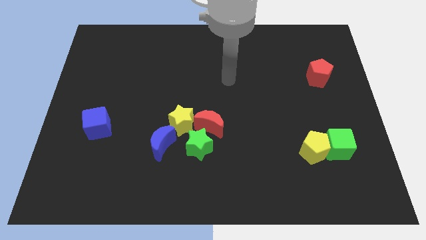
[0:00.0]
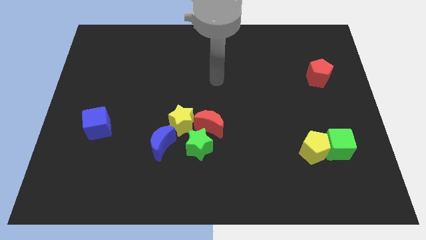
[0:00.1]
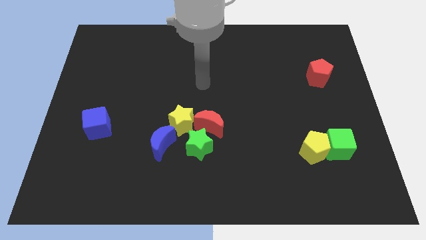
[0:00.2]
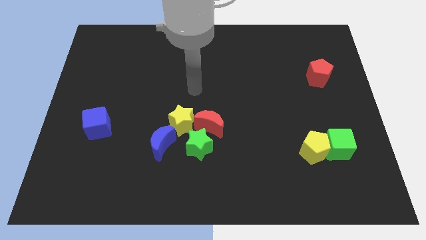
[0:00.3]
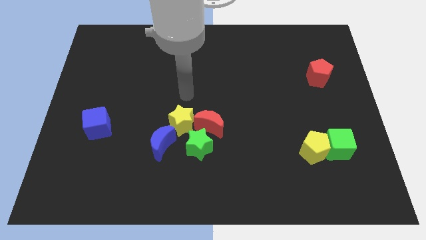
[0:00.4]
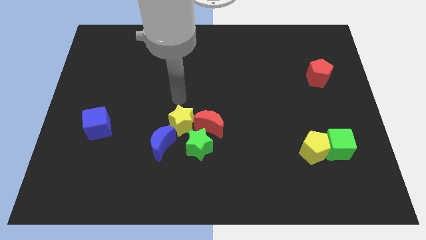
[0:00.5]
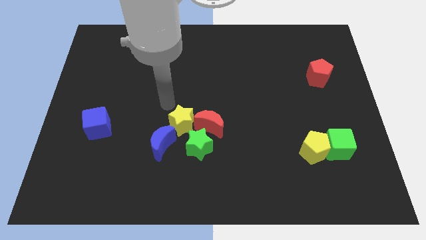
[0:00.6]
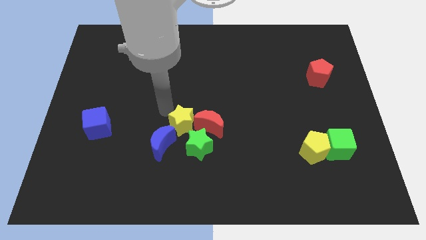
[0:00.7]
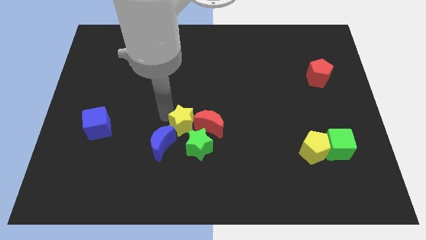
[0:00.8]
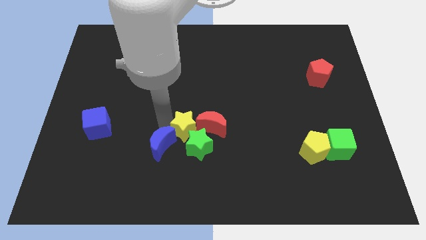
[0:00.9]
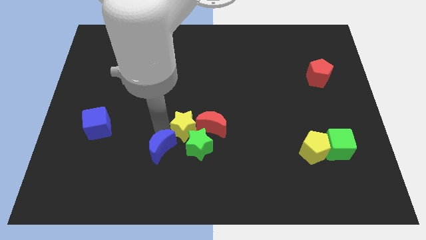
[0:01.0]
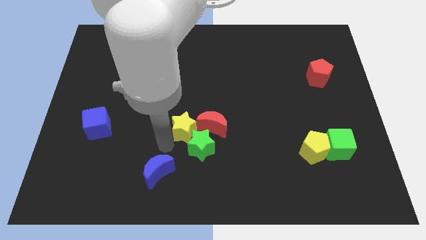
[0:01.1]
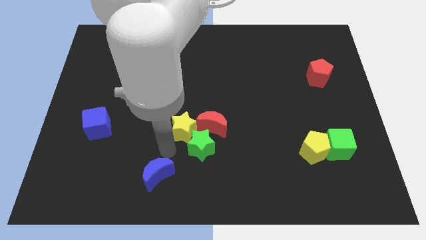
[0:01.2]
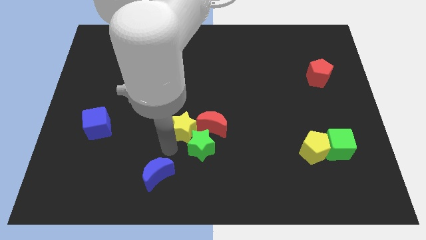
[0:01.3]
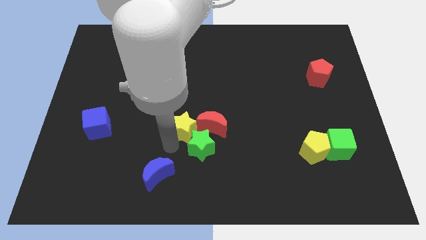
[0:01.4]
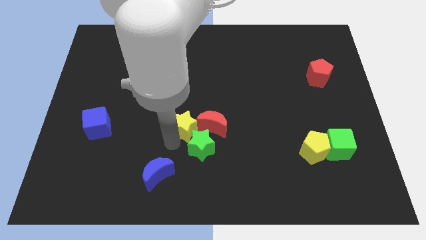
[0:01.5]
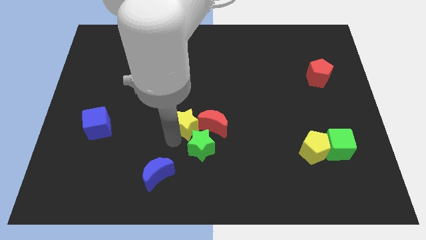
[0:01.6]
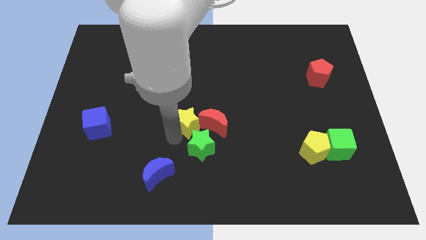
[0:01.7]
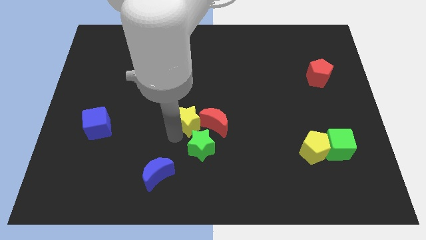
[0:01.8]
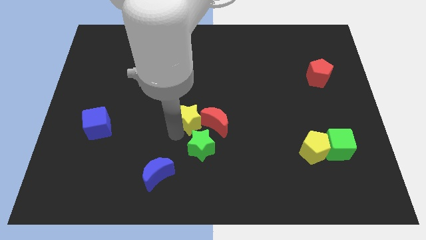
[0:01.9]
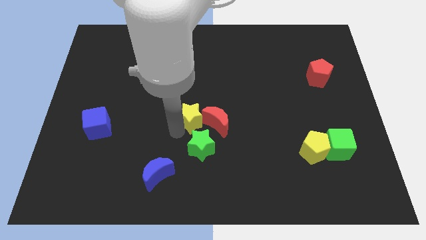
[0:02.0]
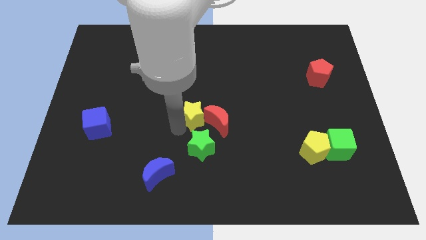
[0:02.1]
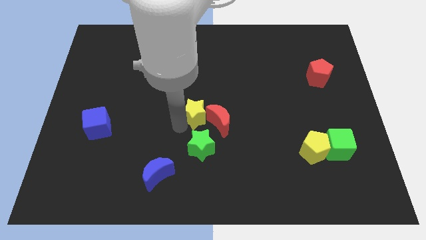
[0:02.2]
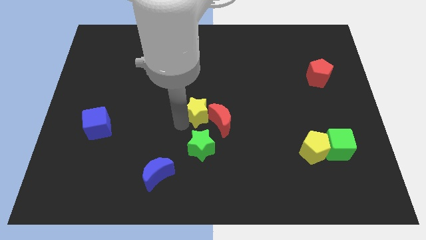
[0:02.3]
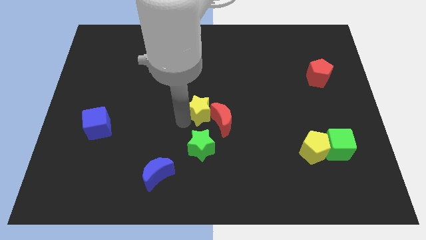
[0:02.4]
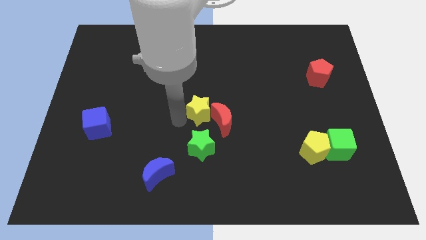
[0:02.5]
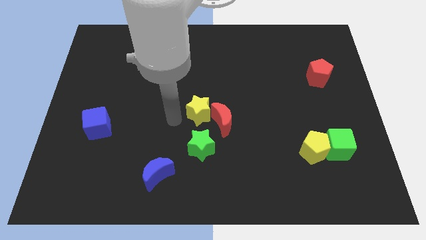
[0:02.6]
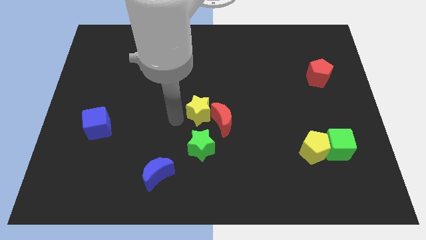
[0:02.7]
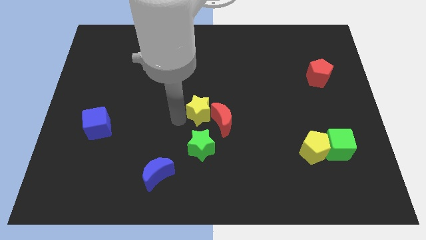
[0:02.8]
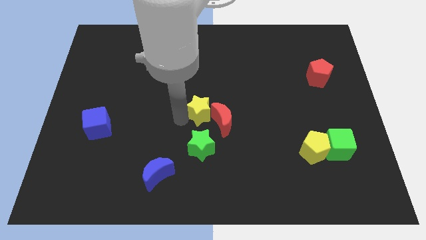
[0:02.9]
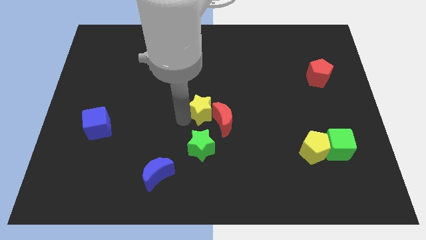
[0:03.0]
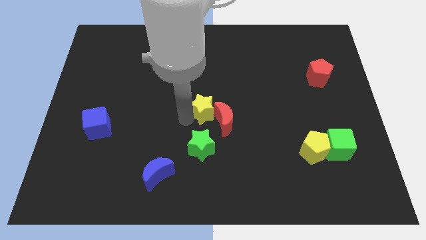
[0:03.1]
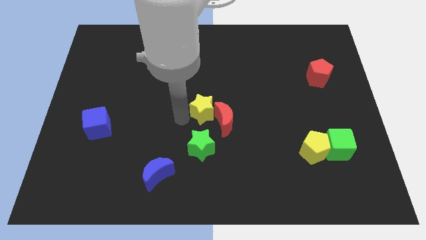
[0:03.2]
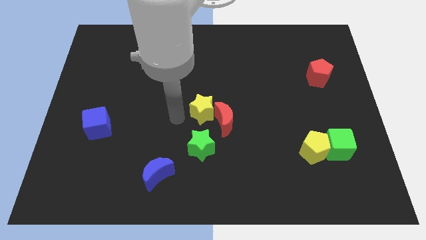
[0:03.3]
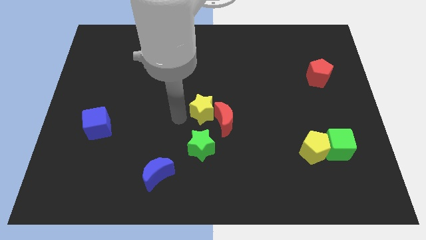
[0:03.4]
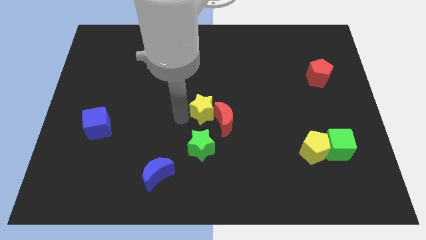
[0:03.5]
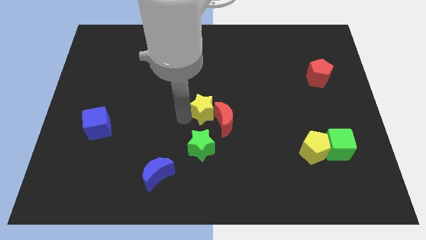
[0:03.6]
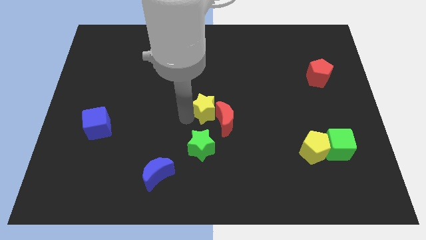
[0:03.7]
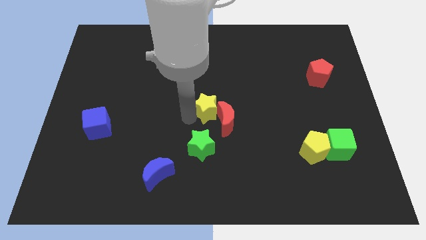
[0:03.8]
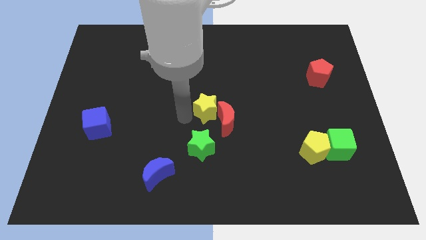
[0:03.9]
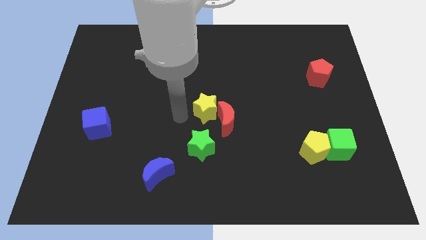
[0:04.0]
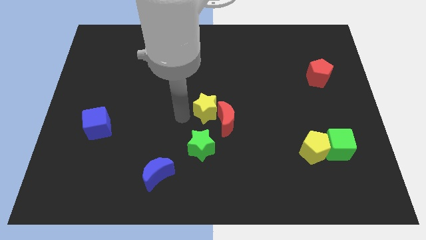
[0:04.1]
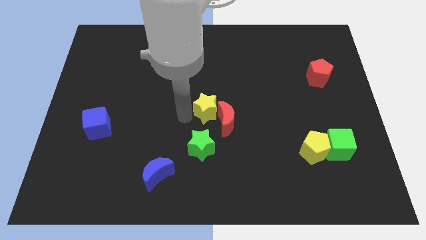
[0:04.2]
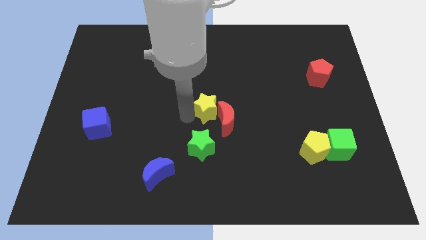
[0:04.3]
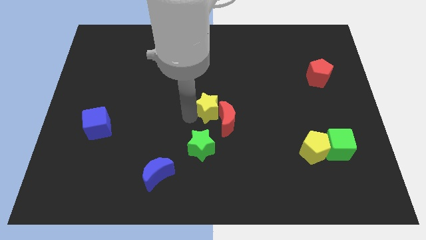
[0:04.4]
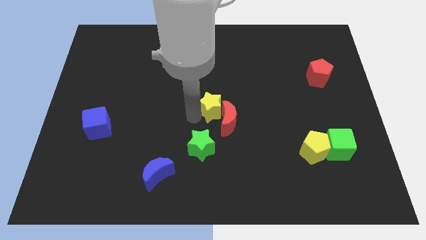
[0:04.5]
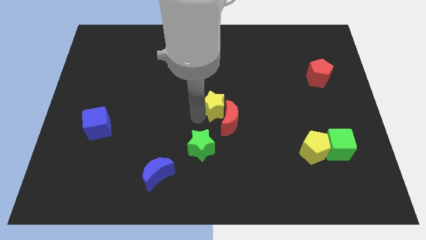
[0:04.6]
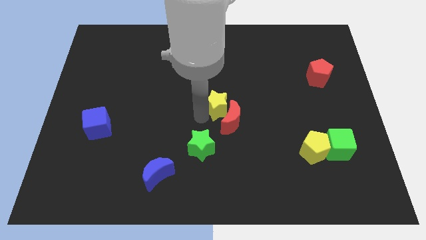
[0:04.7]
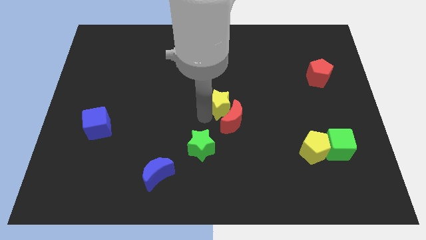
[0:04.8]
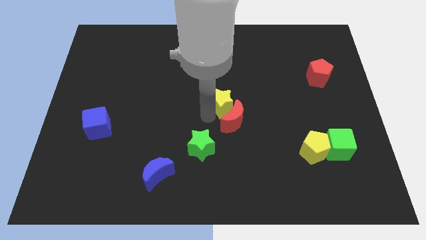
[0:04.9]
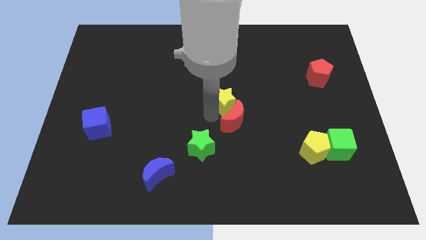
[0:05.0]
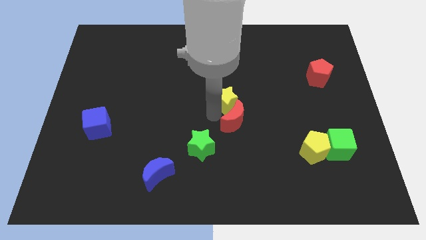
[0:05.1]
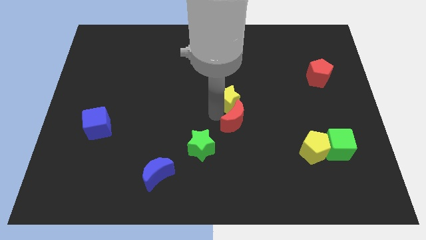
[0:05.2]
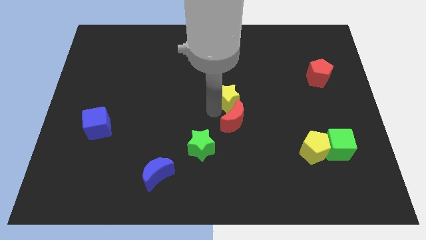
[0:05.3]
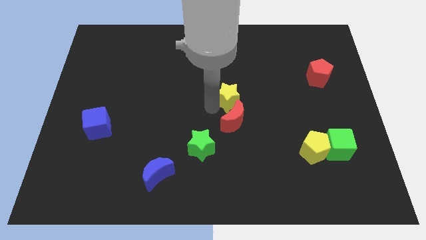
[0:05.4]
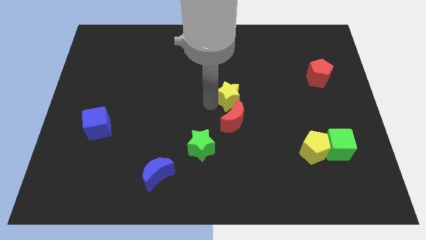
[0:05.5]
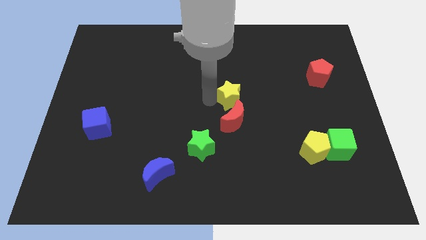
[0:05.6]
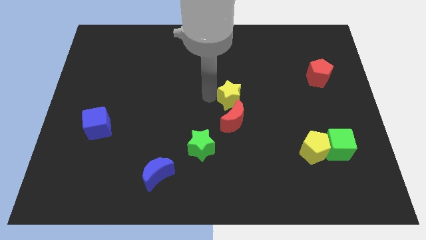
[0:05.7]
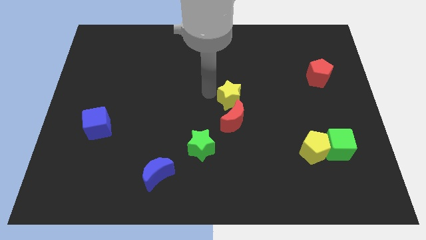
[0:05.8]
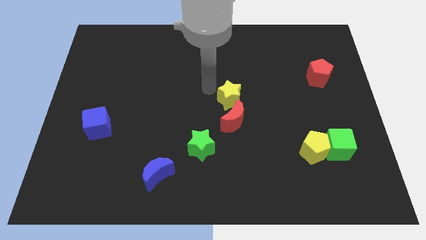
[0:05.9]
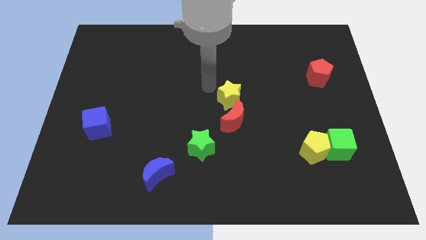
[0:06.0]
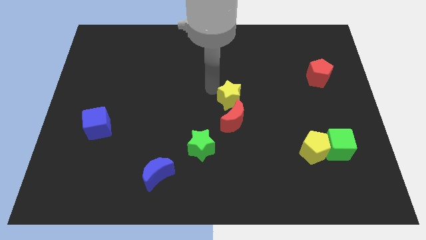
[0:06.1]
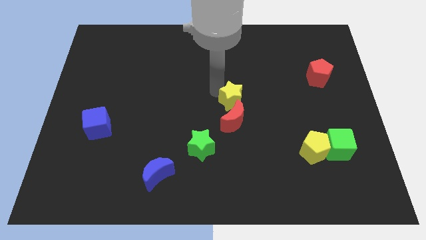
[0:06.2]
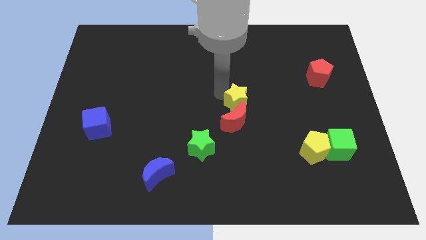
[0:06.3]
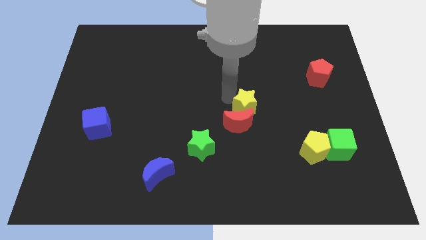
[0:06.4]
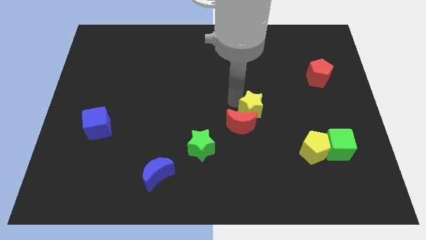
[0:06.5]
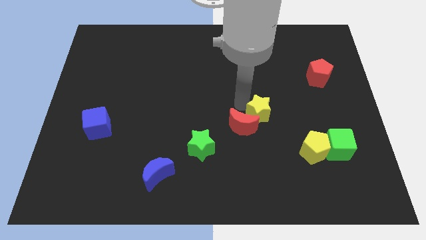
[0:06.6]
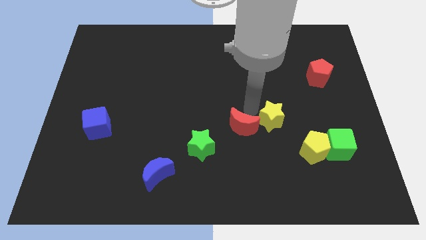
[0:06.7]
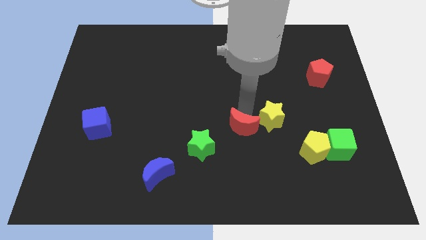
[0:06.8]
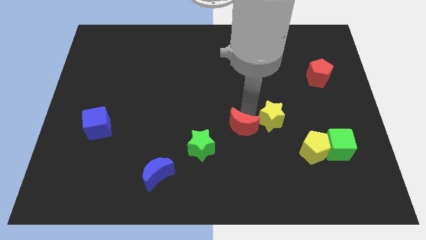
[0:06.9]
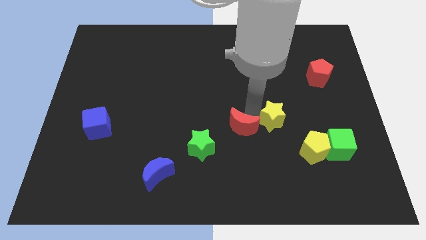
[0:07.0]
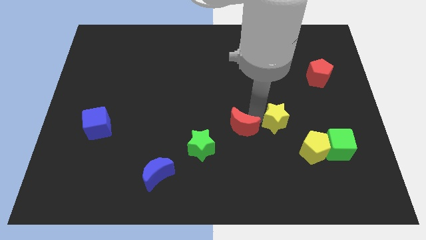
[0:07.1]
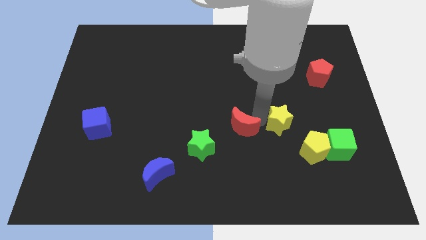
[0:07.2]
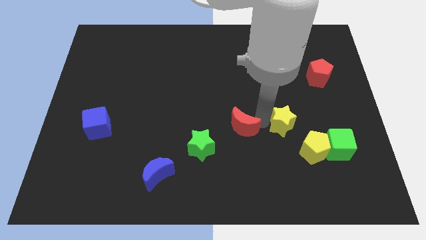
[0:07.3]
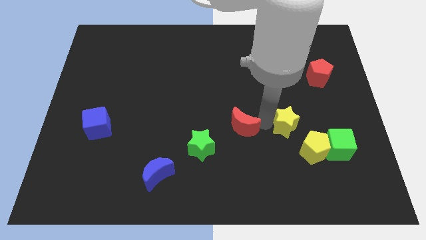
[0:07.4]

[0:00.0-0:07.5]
move the yellow star to the top left side of the green cube
